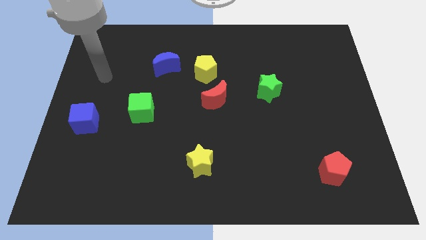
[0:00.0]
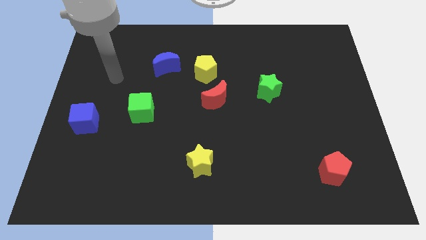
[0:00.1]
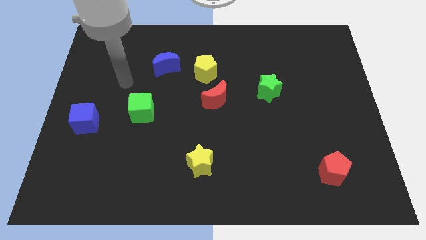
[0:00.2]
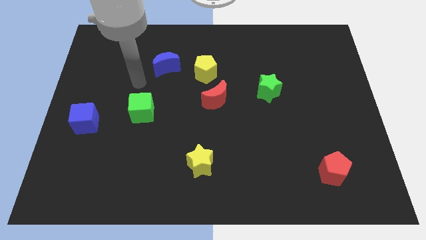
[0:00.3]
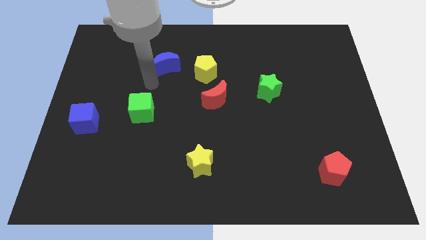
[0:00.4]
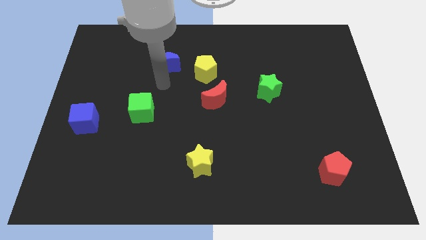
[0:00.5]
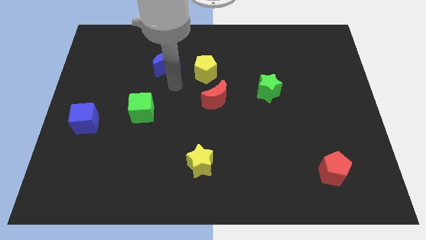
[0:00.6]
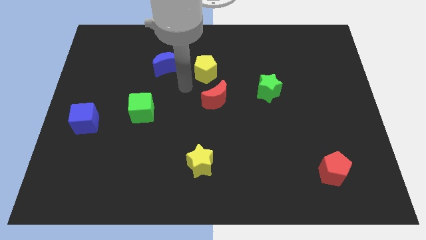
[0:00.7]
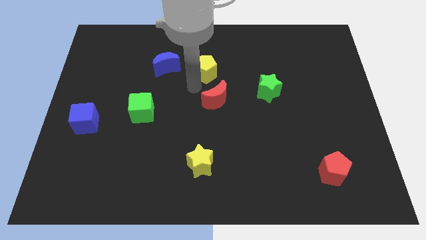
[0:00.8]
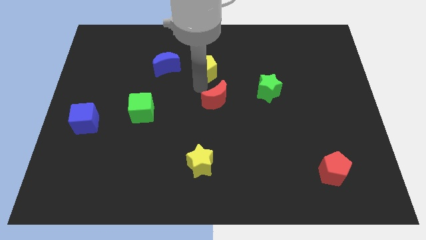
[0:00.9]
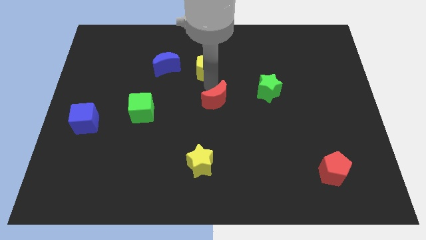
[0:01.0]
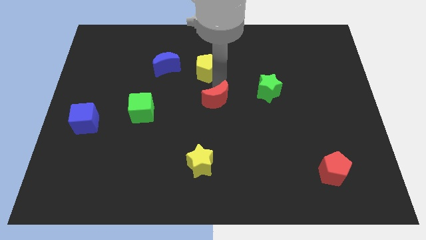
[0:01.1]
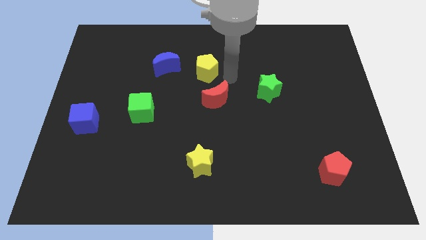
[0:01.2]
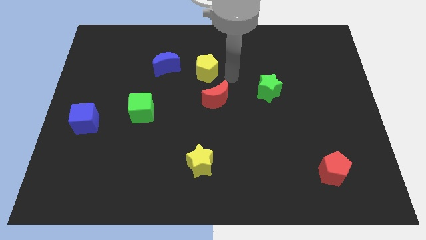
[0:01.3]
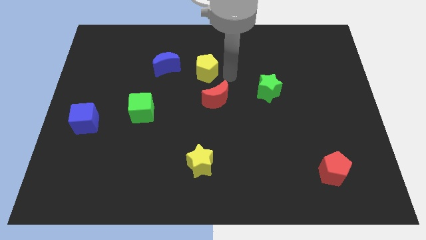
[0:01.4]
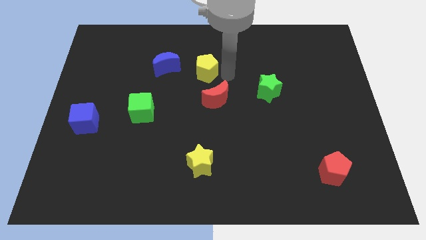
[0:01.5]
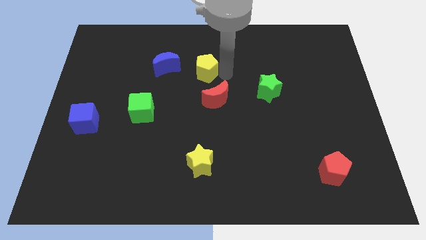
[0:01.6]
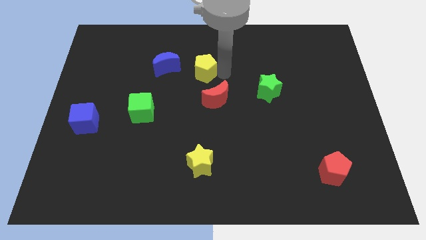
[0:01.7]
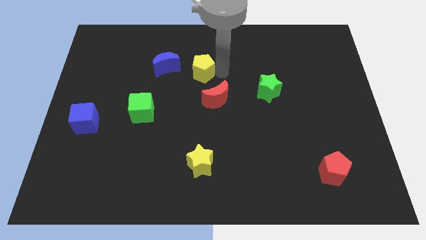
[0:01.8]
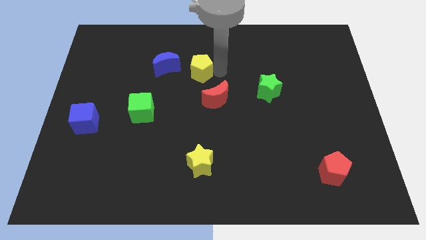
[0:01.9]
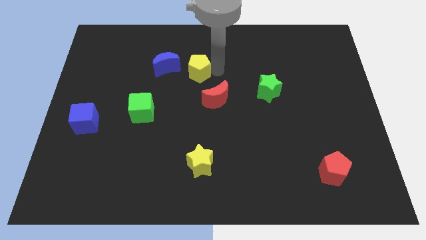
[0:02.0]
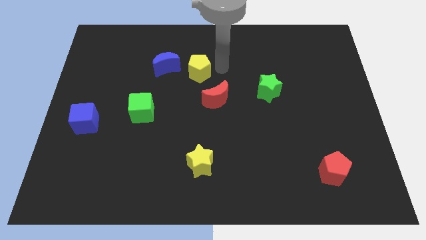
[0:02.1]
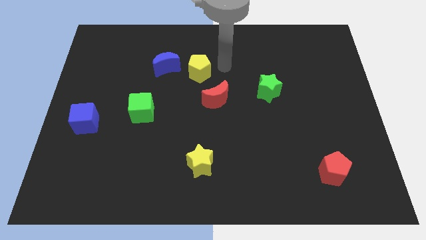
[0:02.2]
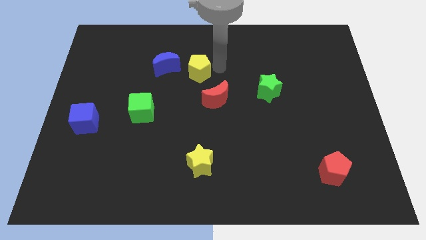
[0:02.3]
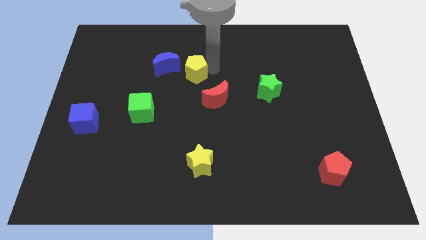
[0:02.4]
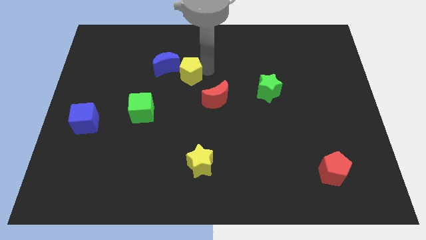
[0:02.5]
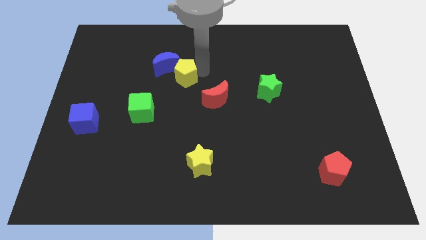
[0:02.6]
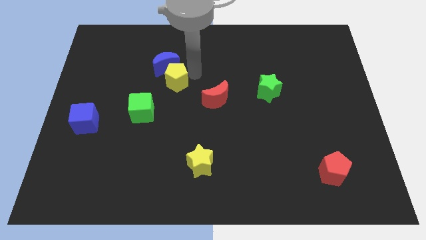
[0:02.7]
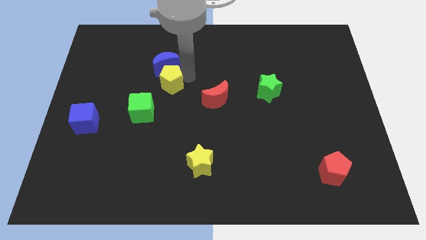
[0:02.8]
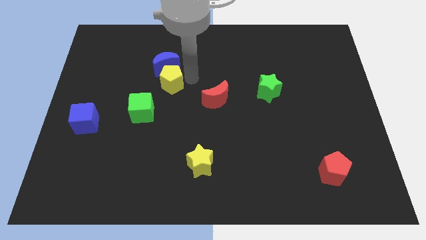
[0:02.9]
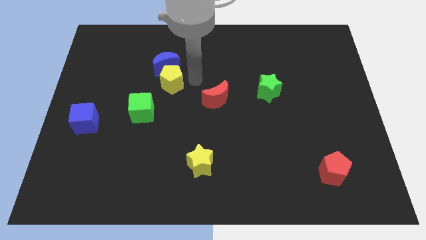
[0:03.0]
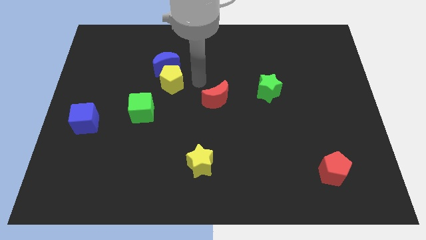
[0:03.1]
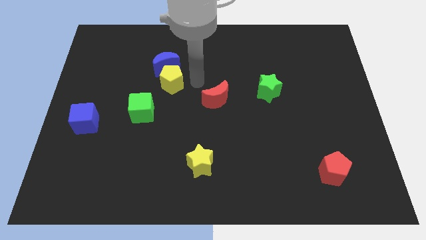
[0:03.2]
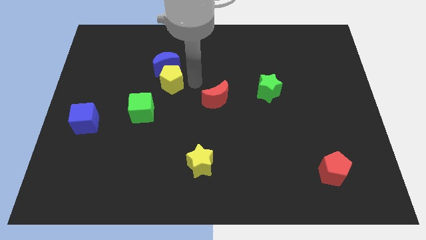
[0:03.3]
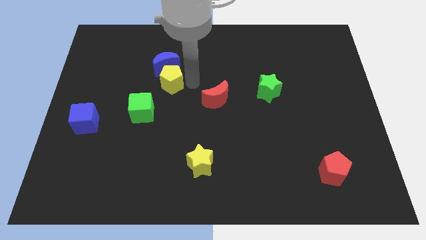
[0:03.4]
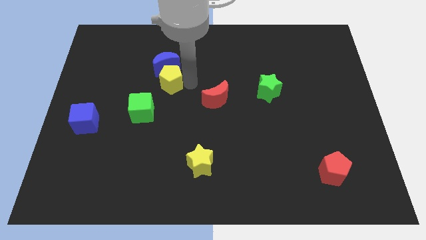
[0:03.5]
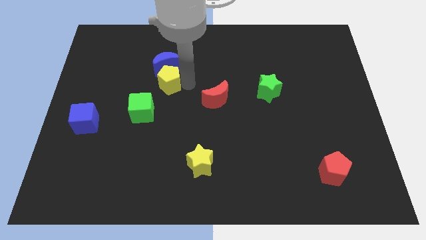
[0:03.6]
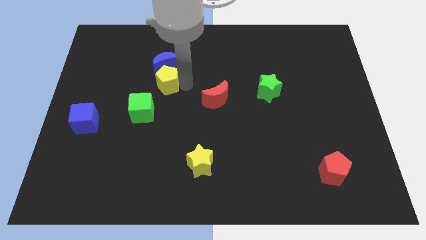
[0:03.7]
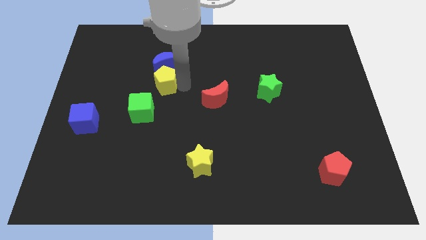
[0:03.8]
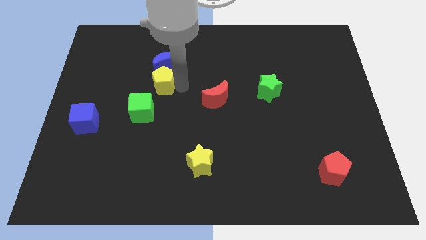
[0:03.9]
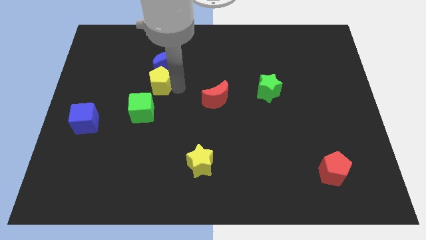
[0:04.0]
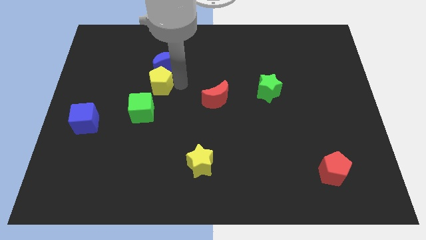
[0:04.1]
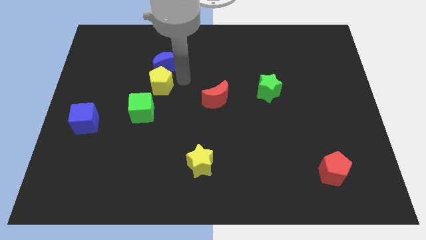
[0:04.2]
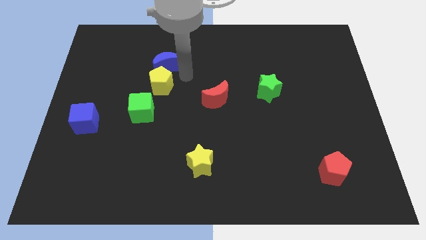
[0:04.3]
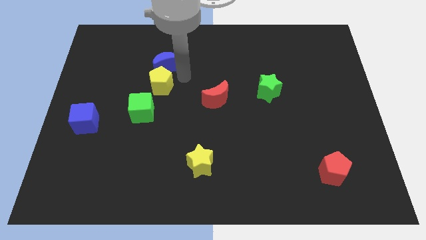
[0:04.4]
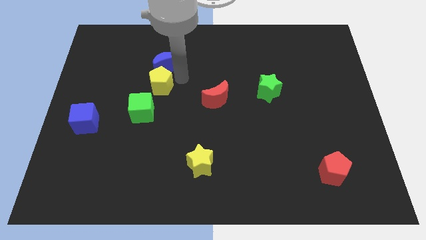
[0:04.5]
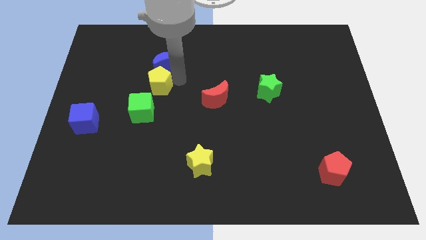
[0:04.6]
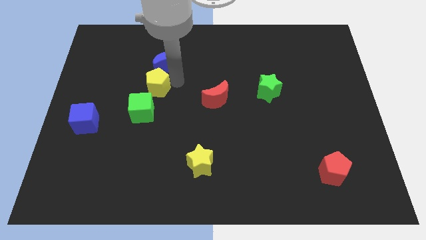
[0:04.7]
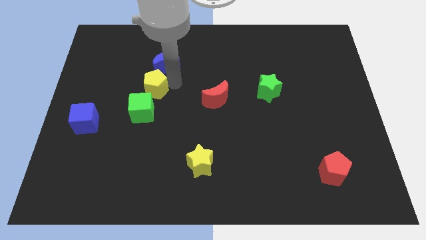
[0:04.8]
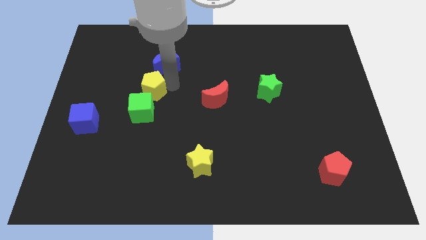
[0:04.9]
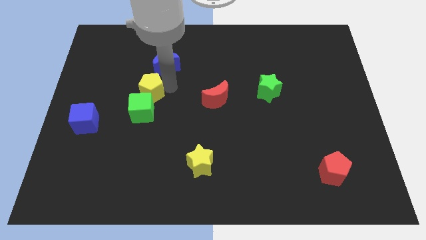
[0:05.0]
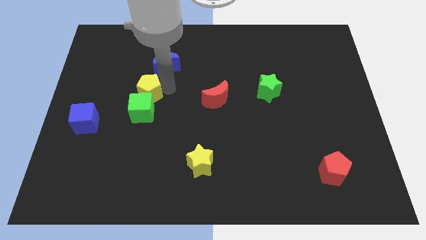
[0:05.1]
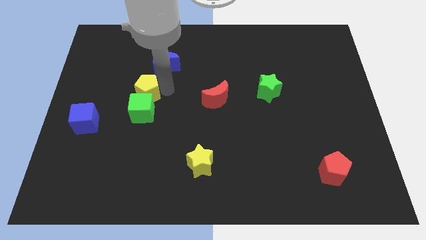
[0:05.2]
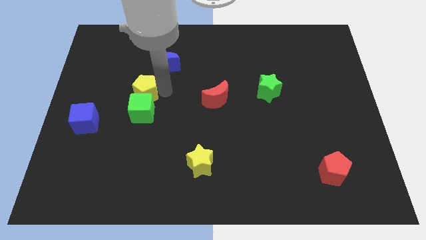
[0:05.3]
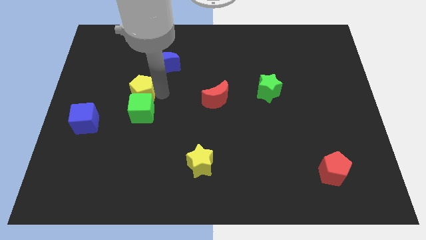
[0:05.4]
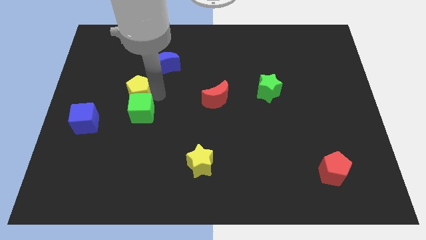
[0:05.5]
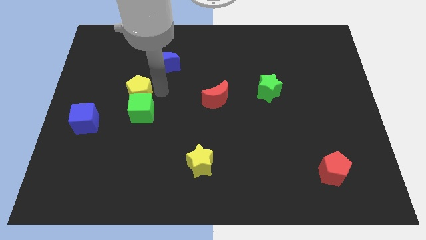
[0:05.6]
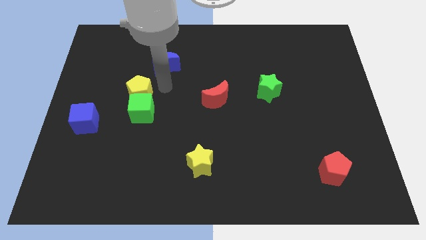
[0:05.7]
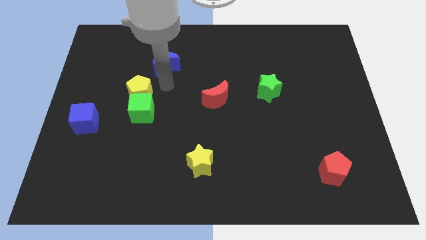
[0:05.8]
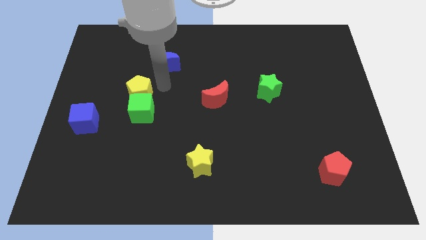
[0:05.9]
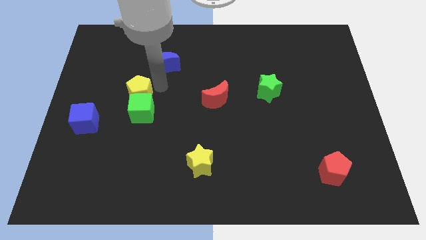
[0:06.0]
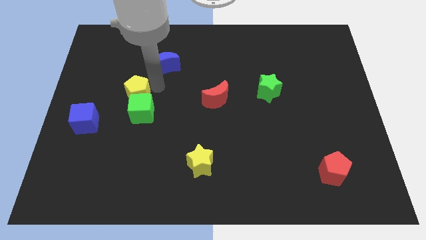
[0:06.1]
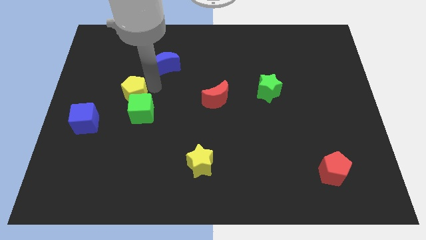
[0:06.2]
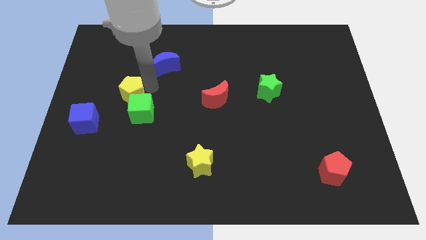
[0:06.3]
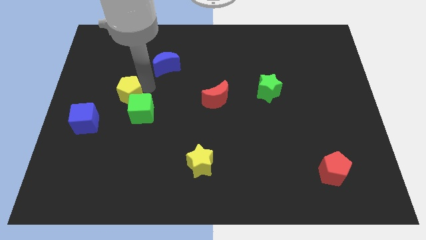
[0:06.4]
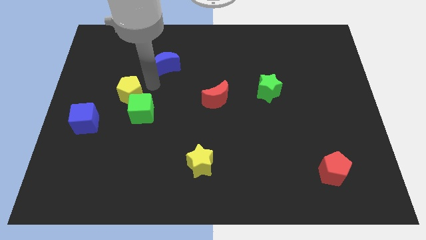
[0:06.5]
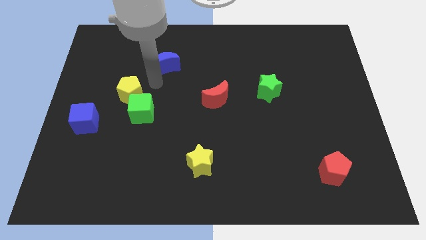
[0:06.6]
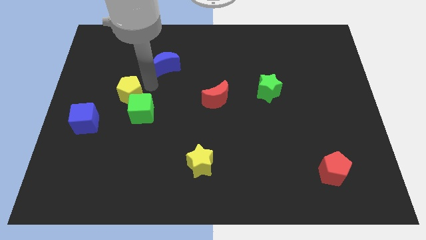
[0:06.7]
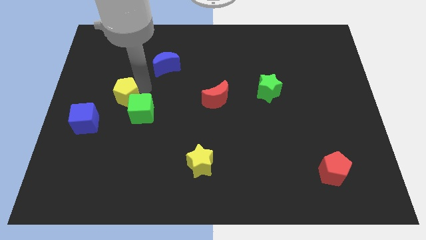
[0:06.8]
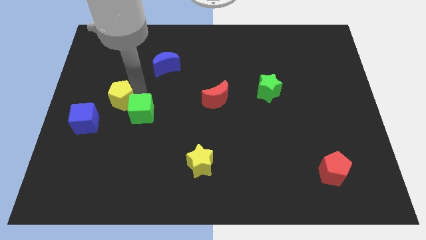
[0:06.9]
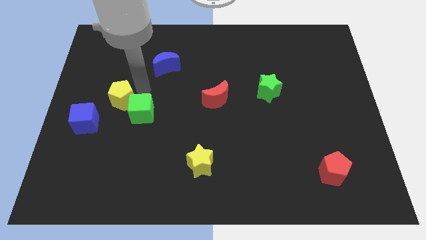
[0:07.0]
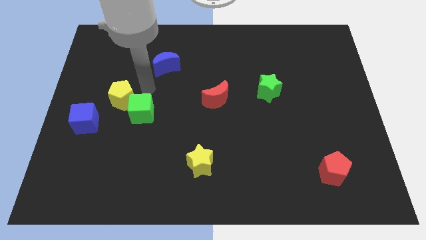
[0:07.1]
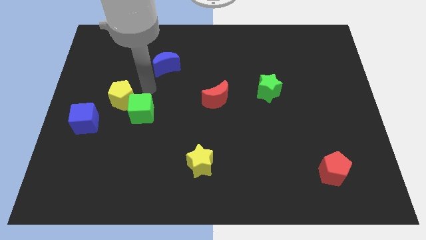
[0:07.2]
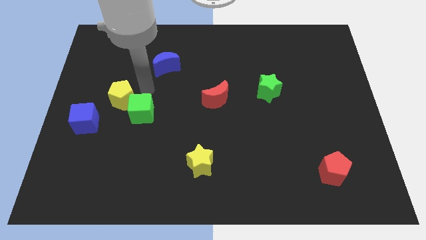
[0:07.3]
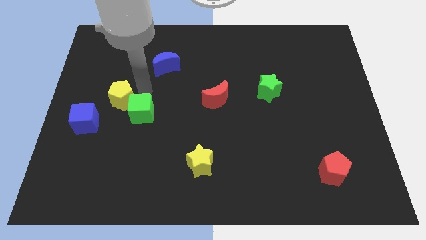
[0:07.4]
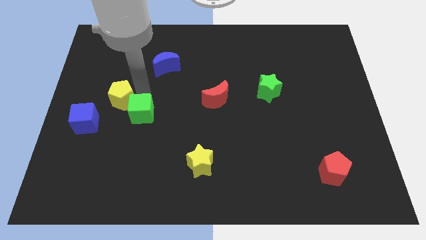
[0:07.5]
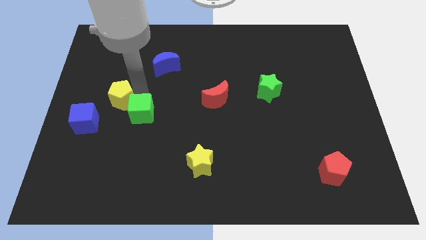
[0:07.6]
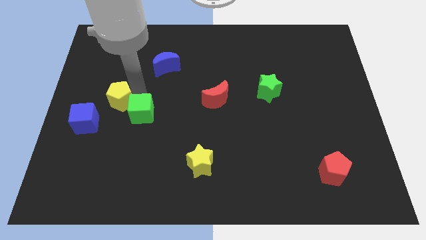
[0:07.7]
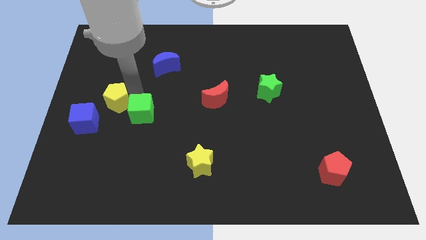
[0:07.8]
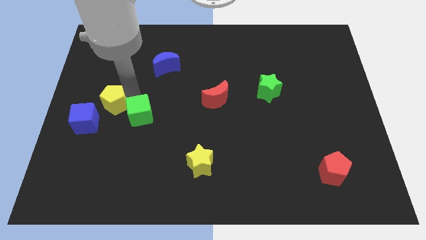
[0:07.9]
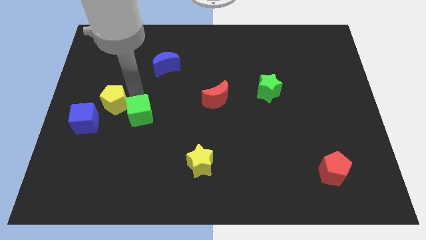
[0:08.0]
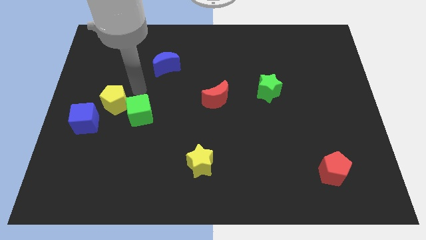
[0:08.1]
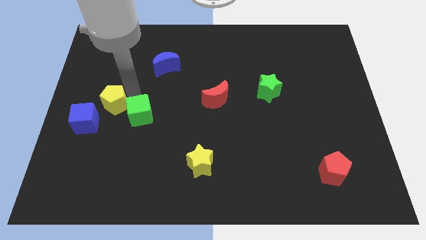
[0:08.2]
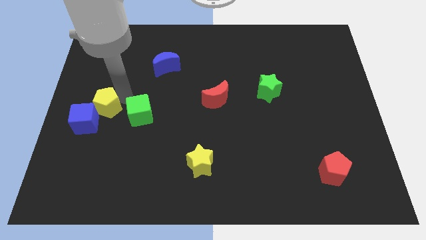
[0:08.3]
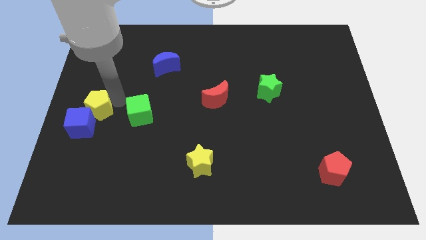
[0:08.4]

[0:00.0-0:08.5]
move the yellow pentagon towards the blue cube
